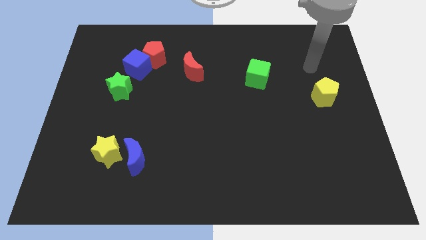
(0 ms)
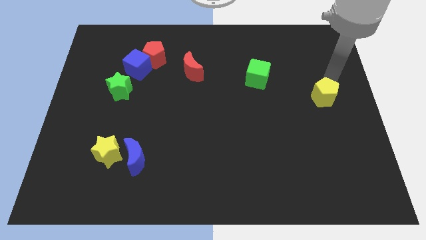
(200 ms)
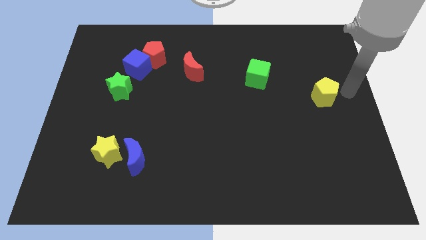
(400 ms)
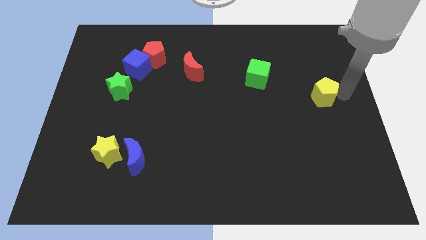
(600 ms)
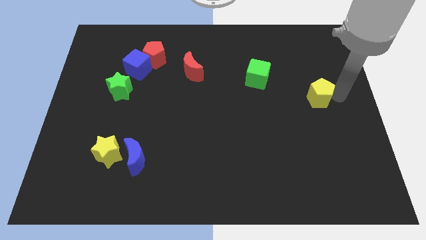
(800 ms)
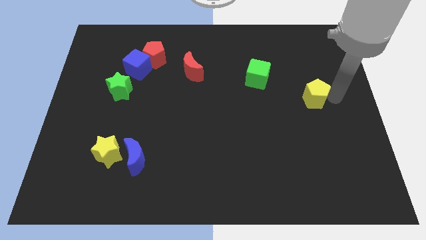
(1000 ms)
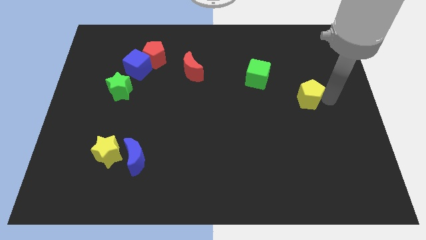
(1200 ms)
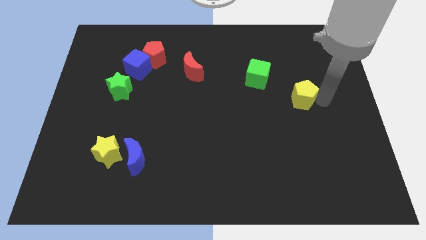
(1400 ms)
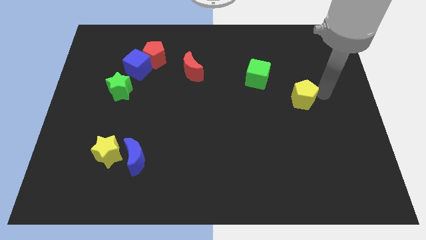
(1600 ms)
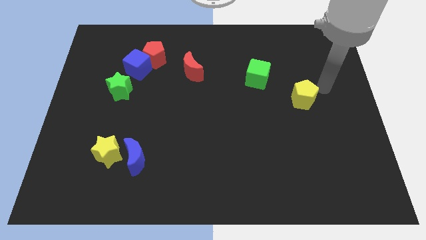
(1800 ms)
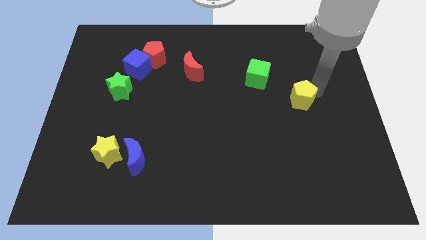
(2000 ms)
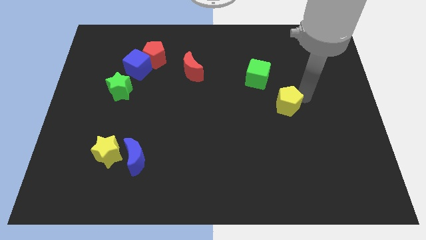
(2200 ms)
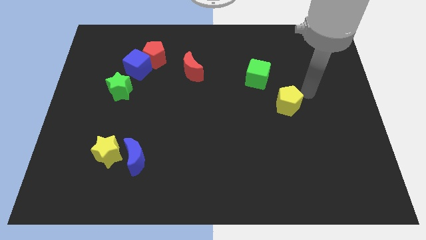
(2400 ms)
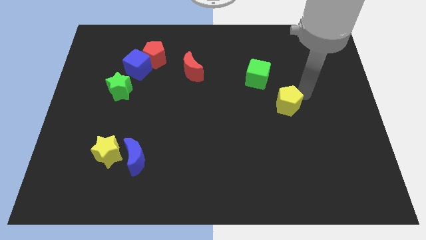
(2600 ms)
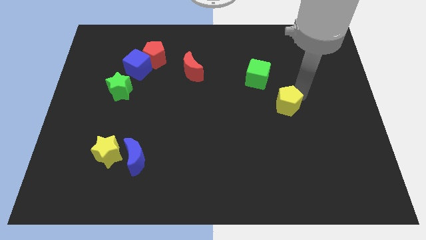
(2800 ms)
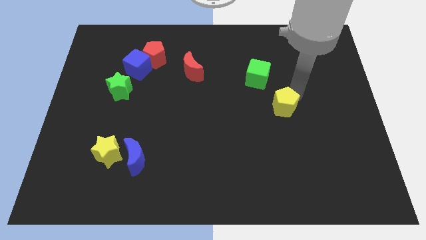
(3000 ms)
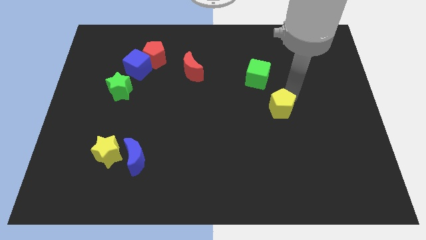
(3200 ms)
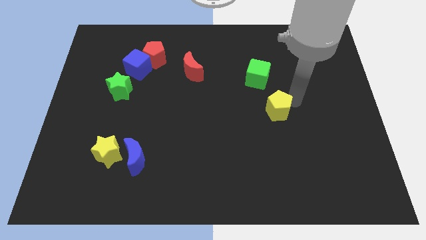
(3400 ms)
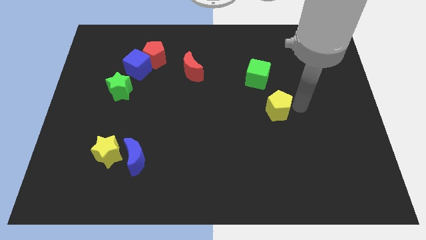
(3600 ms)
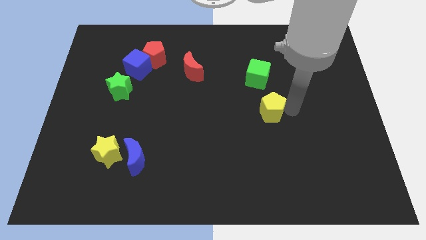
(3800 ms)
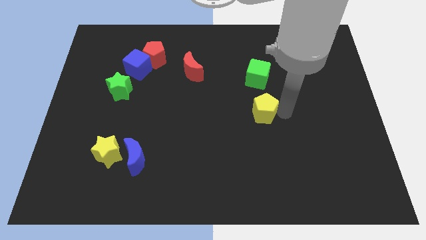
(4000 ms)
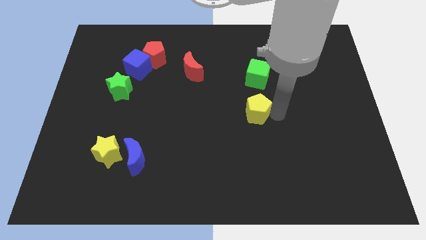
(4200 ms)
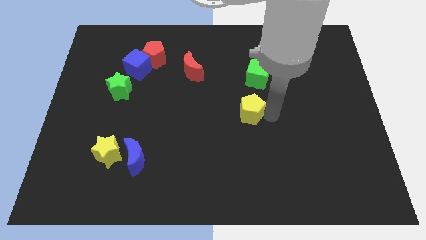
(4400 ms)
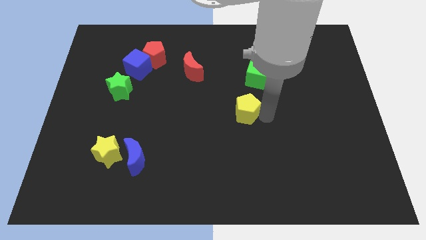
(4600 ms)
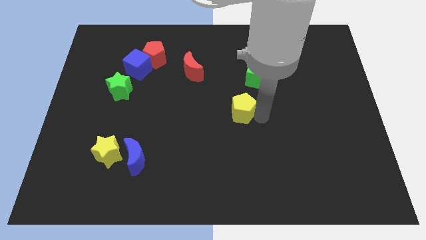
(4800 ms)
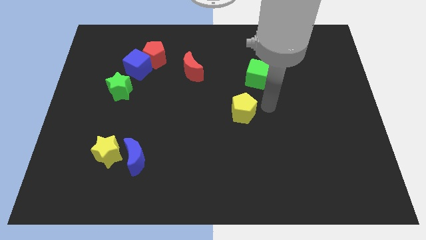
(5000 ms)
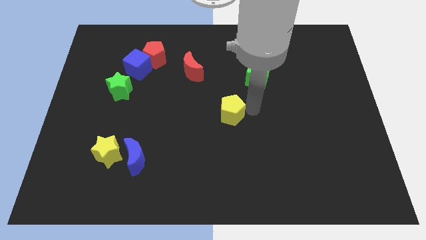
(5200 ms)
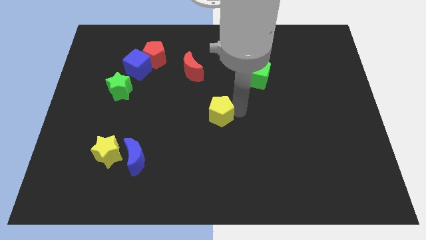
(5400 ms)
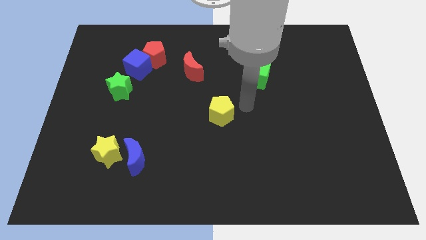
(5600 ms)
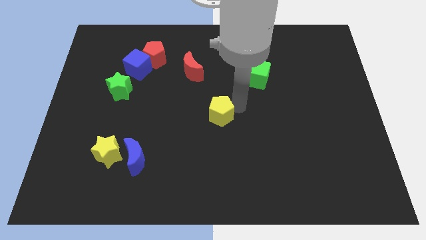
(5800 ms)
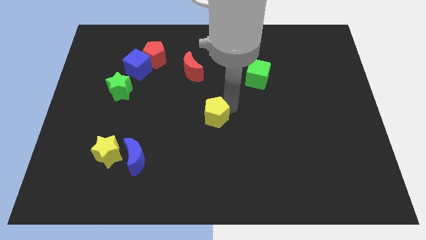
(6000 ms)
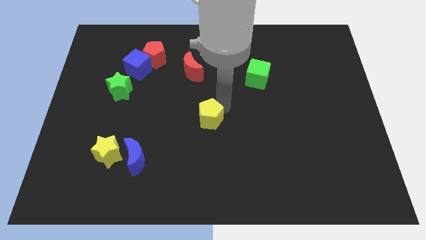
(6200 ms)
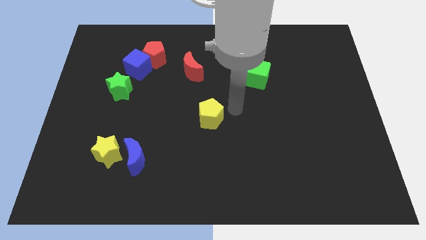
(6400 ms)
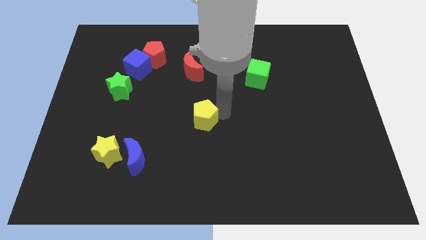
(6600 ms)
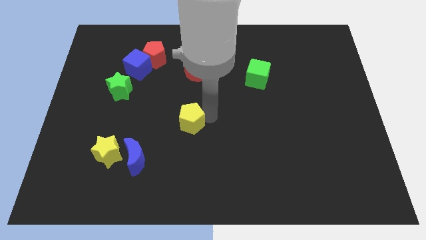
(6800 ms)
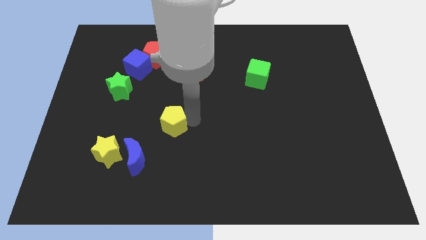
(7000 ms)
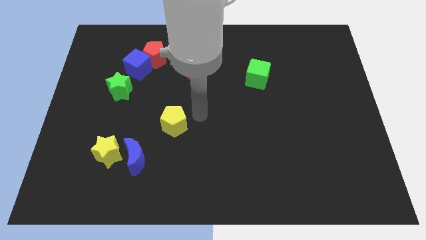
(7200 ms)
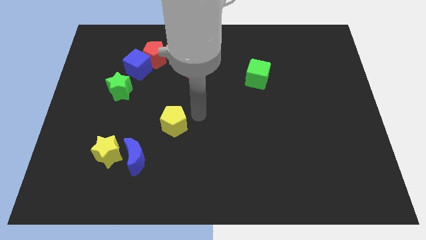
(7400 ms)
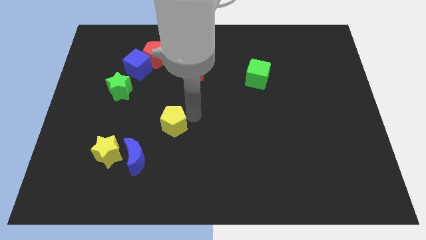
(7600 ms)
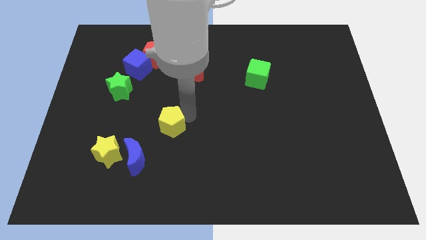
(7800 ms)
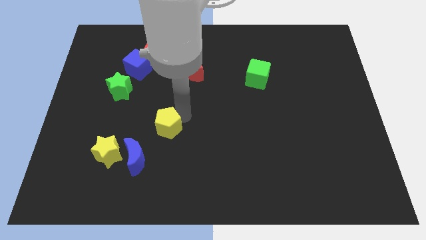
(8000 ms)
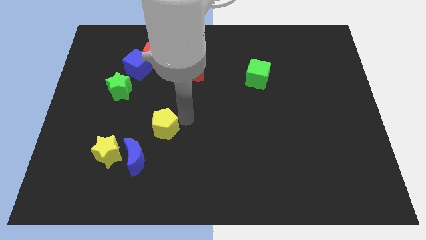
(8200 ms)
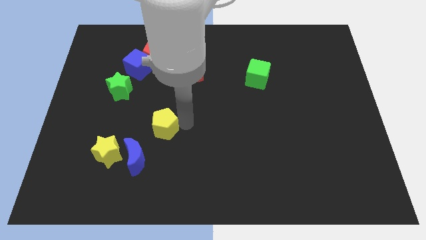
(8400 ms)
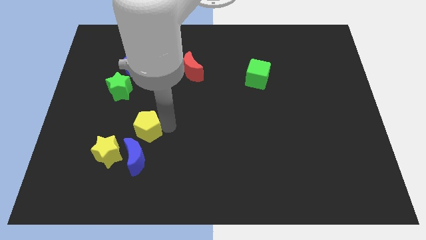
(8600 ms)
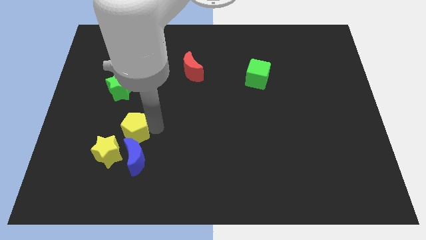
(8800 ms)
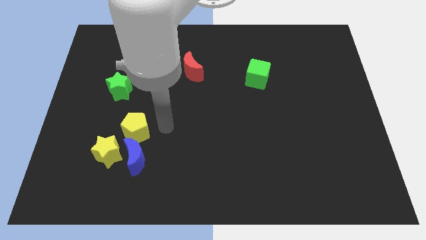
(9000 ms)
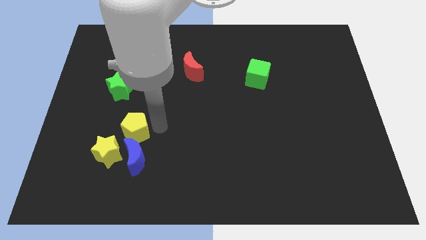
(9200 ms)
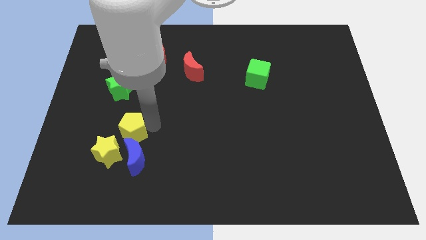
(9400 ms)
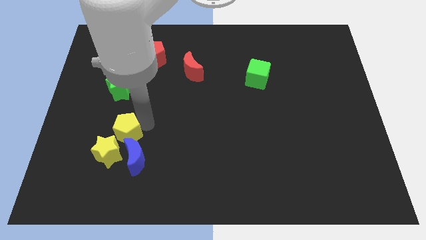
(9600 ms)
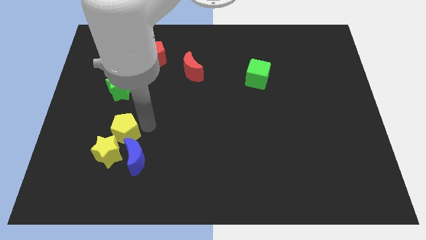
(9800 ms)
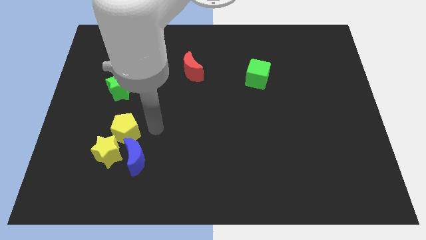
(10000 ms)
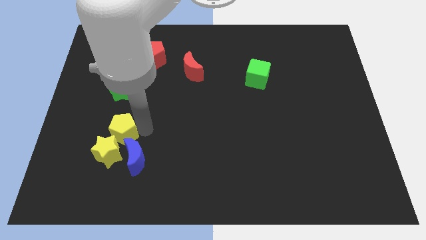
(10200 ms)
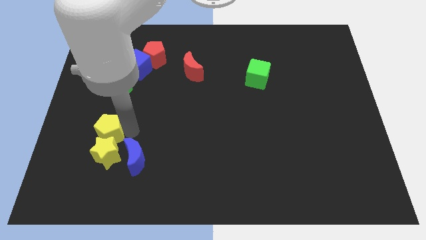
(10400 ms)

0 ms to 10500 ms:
push the yellow pentagon to the top left of the yellow star

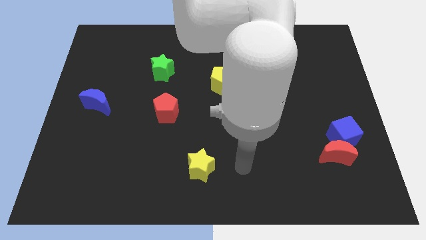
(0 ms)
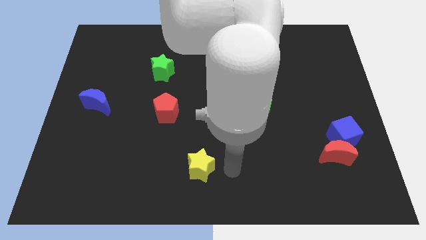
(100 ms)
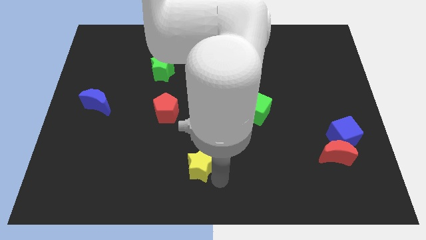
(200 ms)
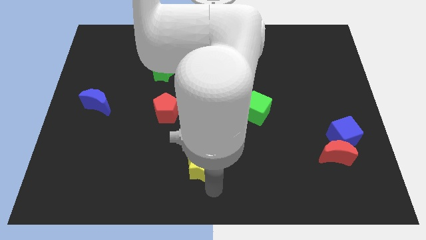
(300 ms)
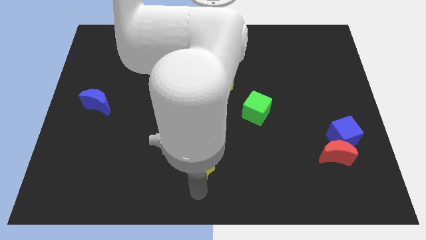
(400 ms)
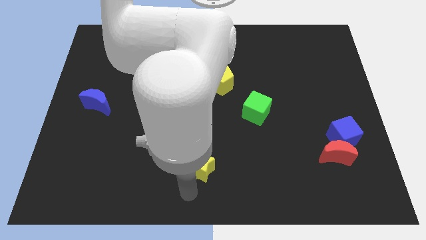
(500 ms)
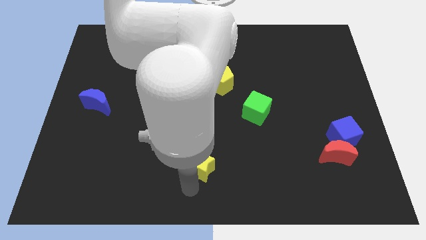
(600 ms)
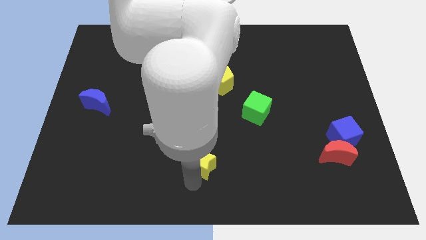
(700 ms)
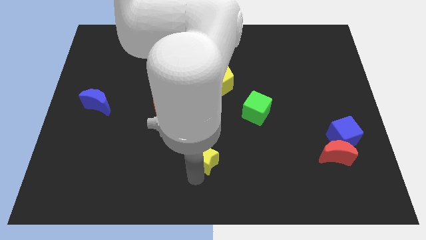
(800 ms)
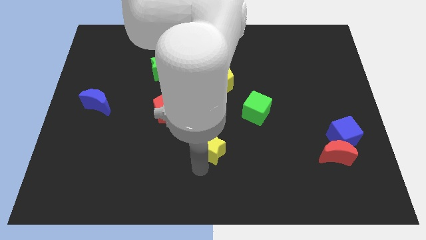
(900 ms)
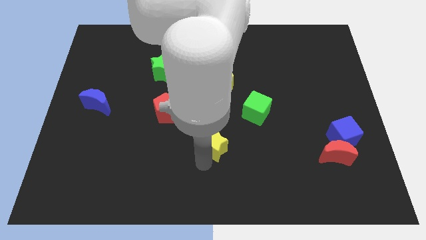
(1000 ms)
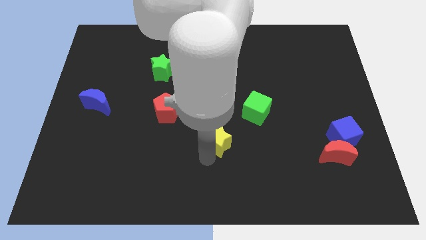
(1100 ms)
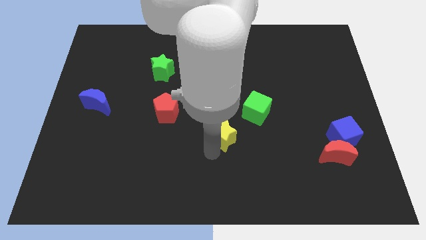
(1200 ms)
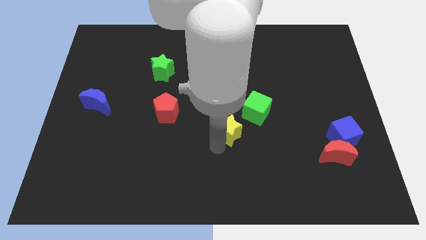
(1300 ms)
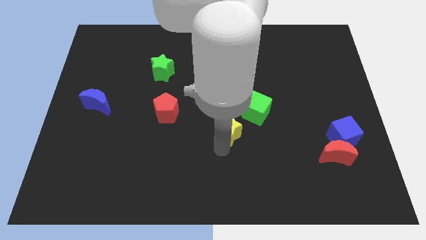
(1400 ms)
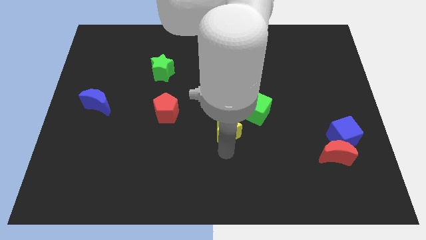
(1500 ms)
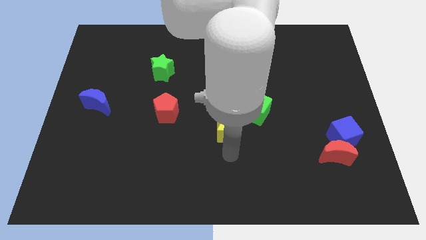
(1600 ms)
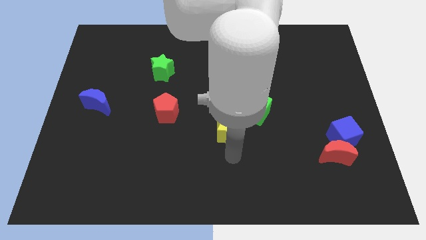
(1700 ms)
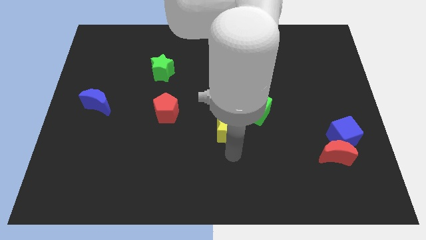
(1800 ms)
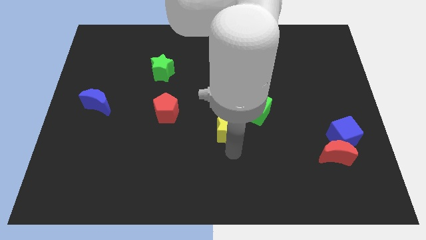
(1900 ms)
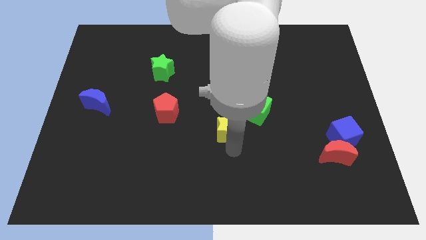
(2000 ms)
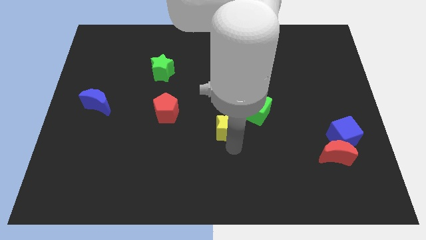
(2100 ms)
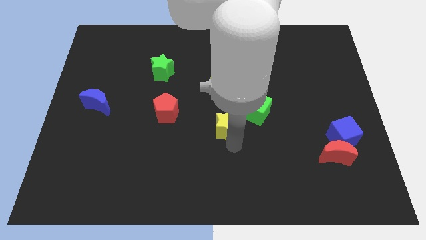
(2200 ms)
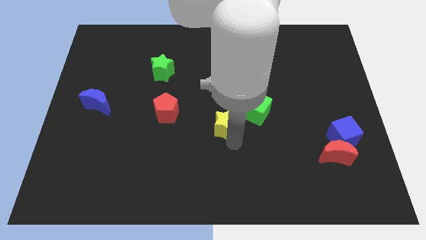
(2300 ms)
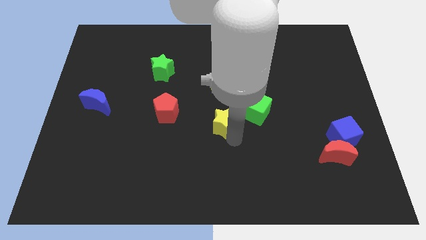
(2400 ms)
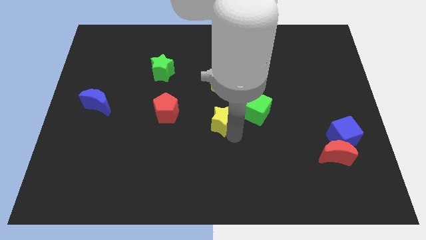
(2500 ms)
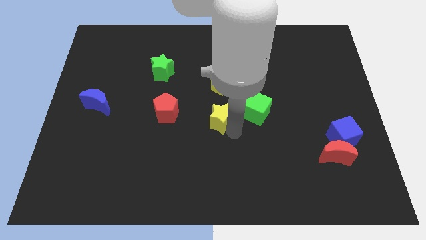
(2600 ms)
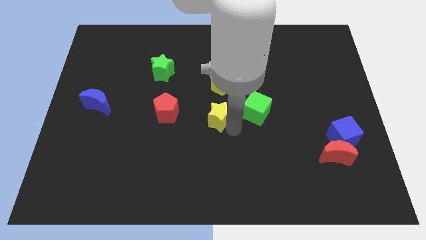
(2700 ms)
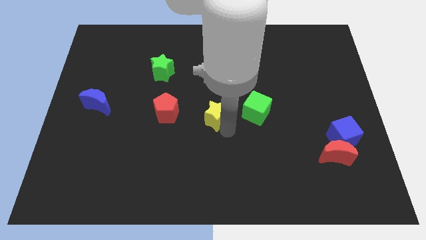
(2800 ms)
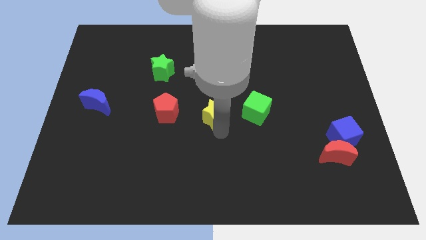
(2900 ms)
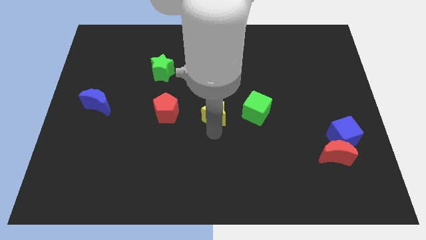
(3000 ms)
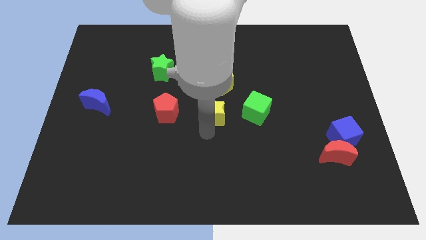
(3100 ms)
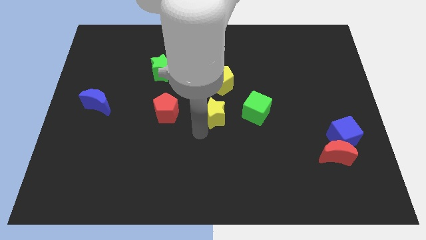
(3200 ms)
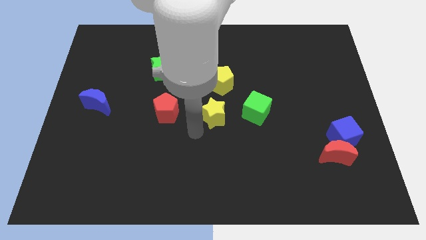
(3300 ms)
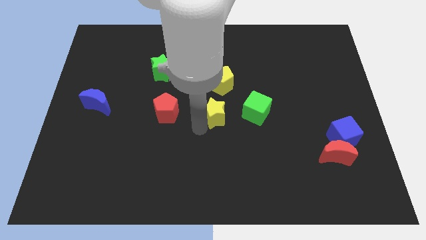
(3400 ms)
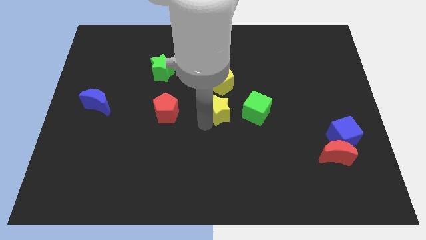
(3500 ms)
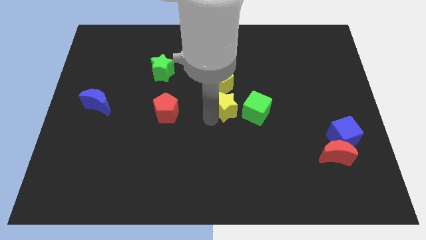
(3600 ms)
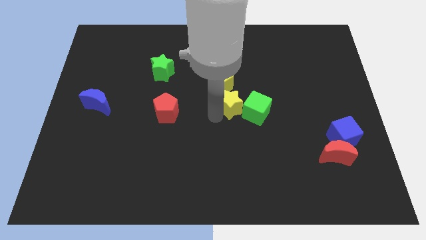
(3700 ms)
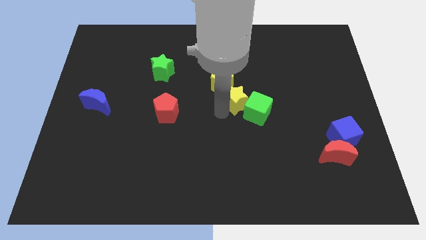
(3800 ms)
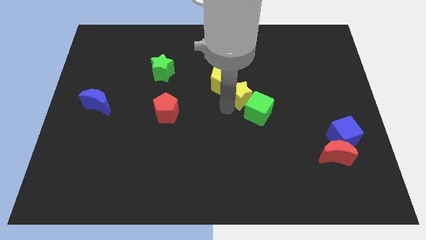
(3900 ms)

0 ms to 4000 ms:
slide the yellow star right of the yellow pentagon
